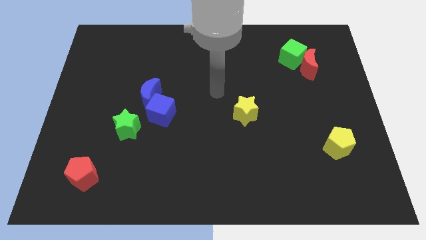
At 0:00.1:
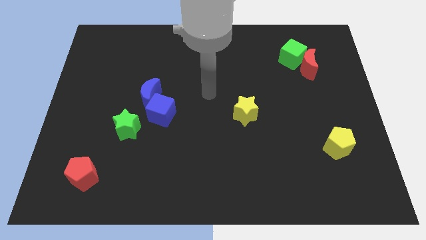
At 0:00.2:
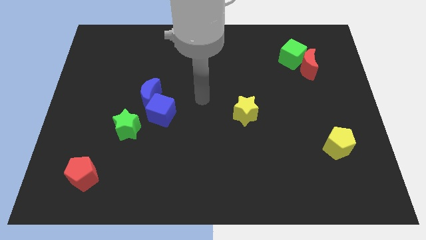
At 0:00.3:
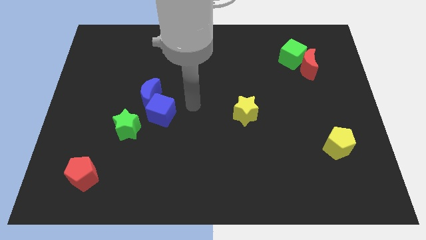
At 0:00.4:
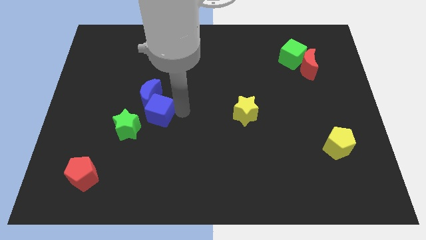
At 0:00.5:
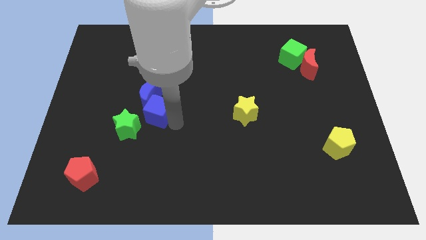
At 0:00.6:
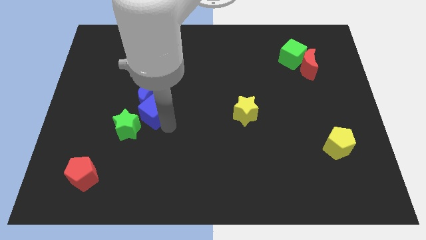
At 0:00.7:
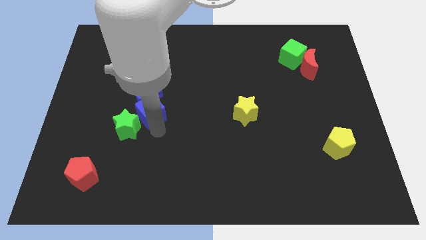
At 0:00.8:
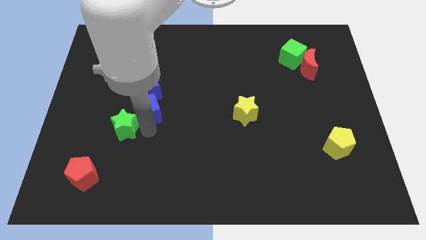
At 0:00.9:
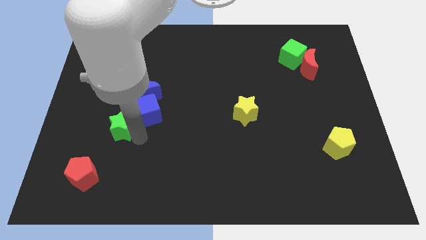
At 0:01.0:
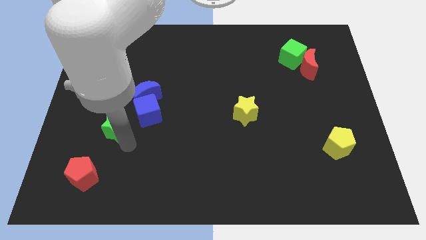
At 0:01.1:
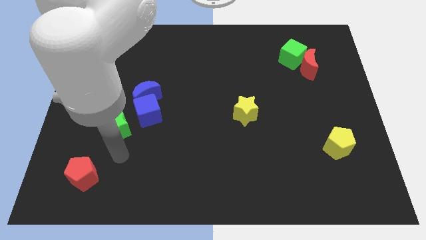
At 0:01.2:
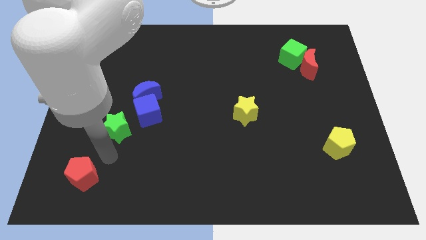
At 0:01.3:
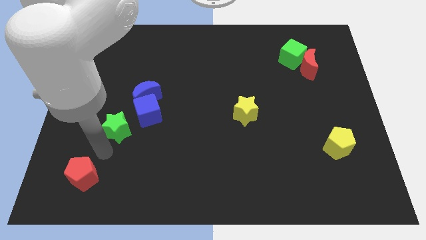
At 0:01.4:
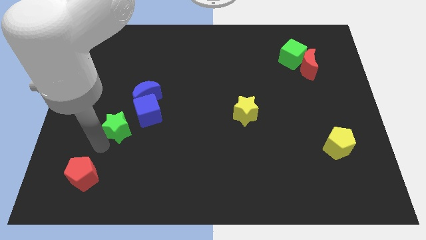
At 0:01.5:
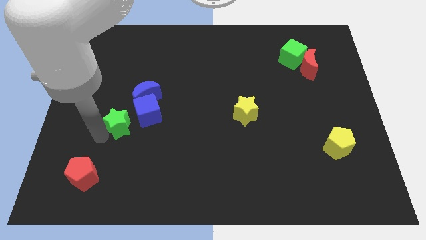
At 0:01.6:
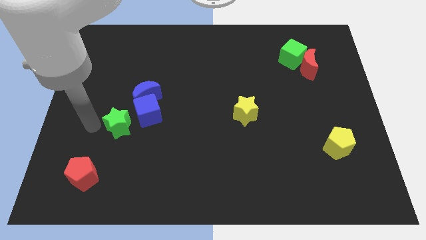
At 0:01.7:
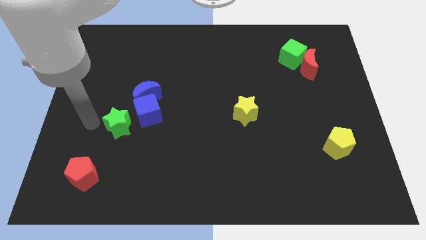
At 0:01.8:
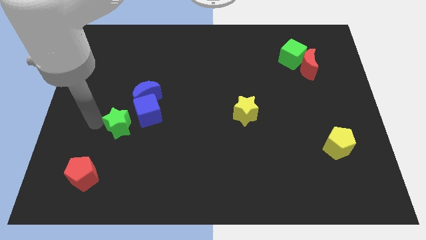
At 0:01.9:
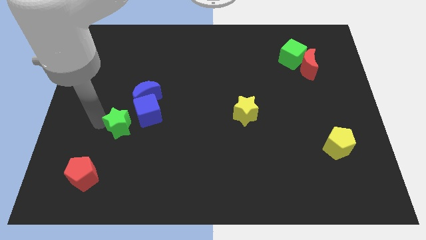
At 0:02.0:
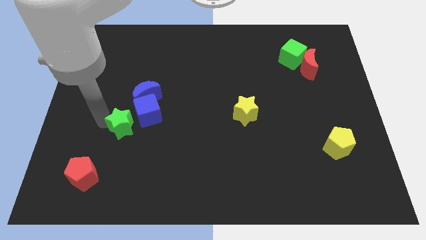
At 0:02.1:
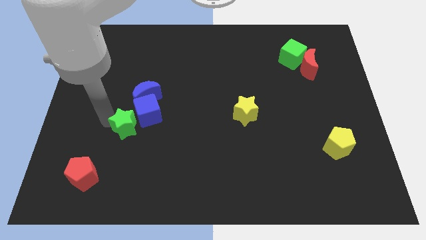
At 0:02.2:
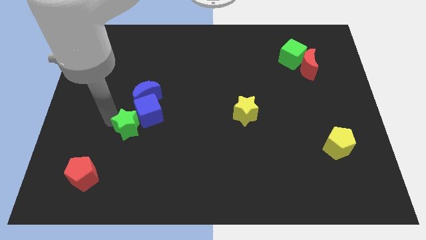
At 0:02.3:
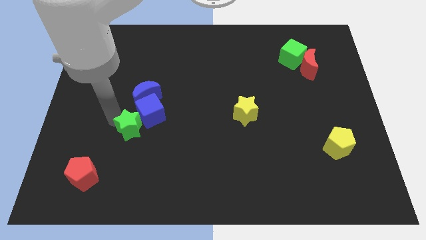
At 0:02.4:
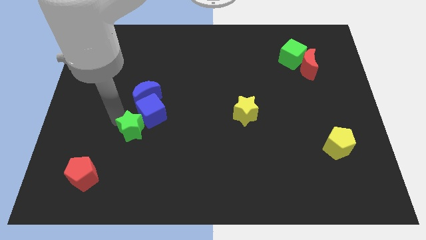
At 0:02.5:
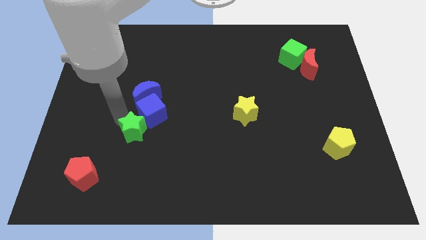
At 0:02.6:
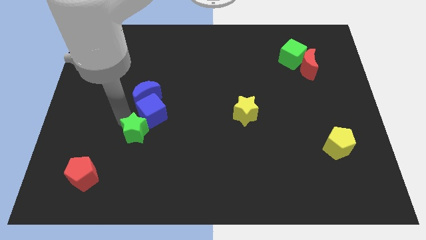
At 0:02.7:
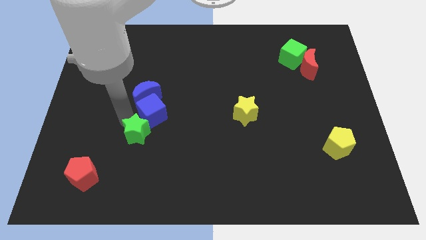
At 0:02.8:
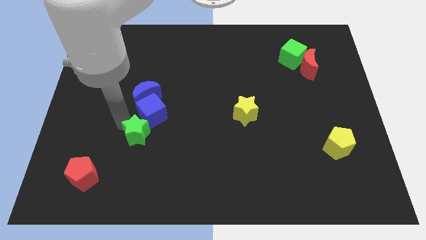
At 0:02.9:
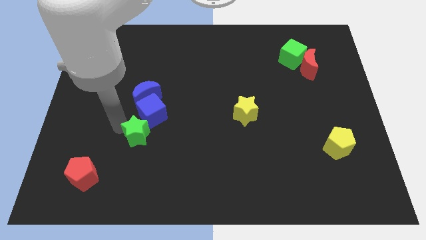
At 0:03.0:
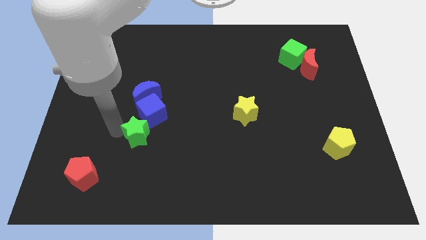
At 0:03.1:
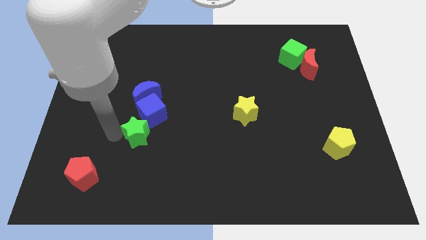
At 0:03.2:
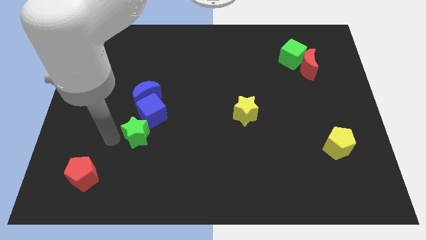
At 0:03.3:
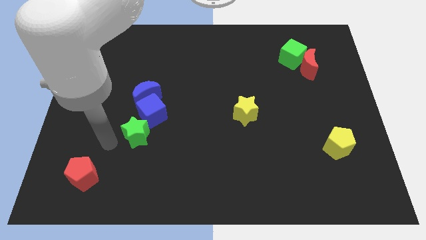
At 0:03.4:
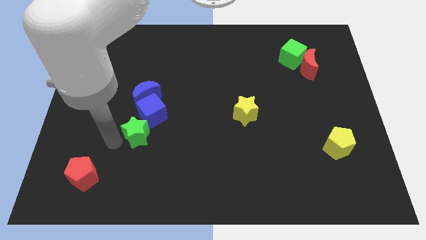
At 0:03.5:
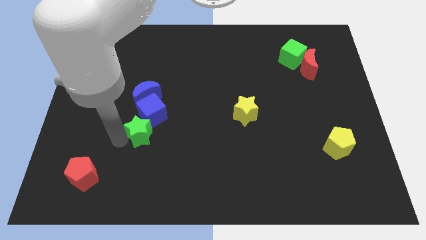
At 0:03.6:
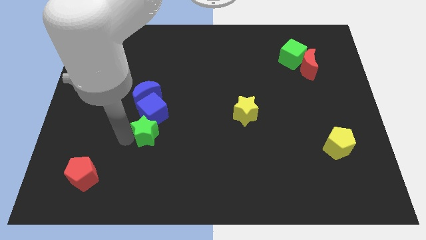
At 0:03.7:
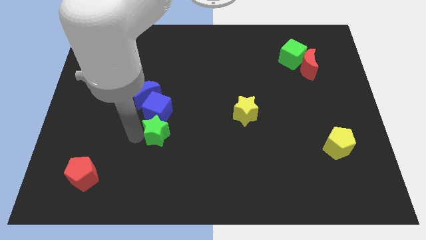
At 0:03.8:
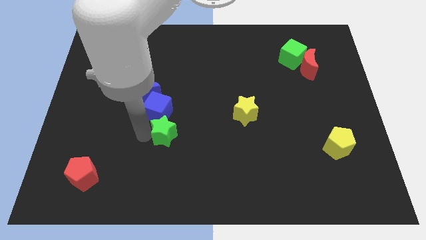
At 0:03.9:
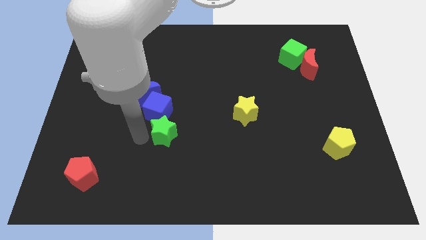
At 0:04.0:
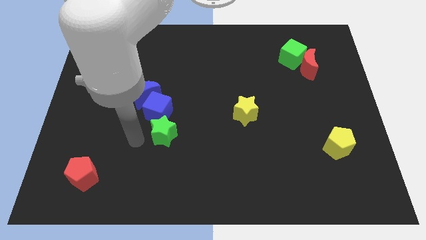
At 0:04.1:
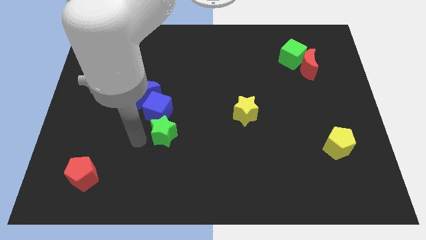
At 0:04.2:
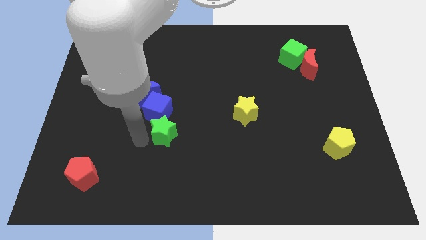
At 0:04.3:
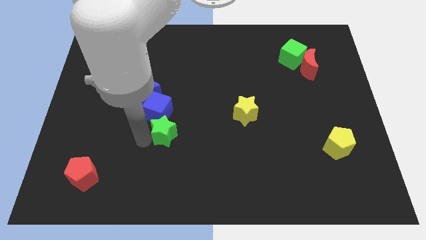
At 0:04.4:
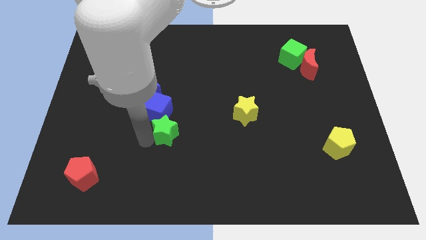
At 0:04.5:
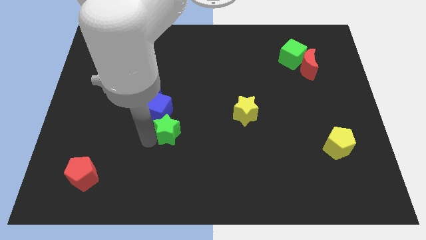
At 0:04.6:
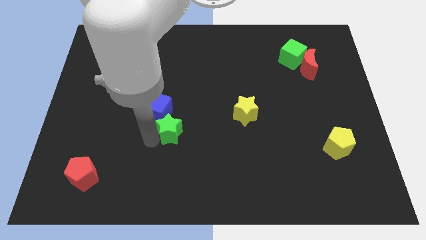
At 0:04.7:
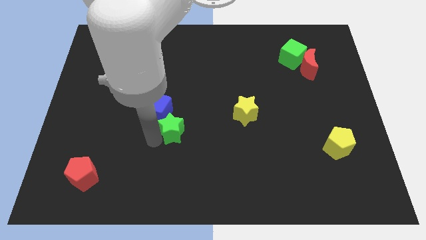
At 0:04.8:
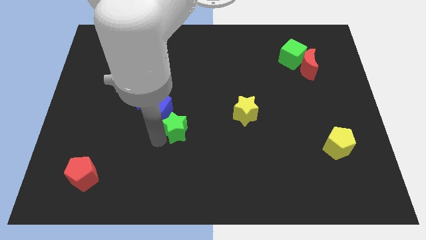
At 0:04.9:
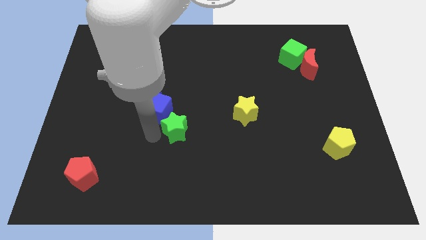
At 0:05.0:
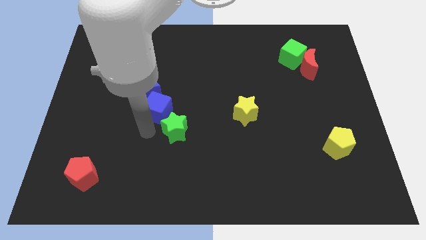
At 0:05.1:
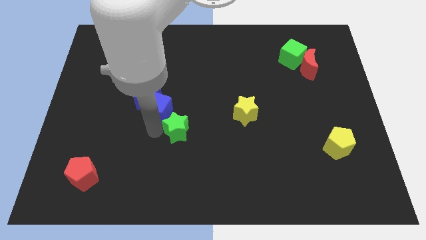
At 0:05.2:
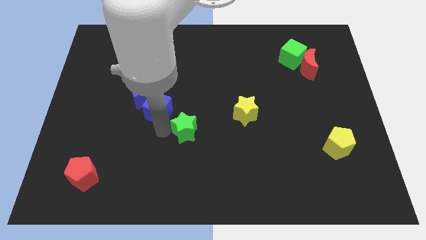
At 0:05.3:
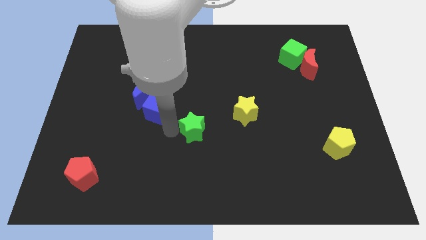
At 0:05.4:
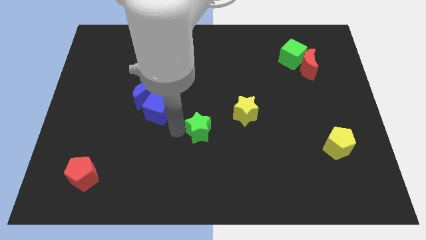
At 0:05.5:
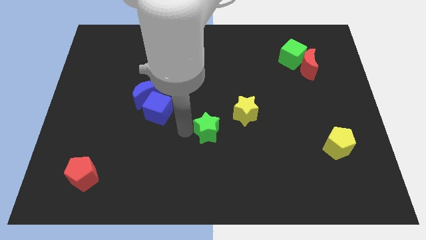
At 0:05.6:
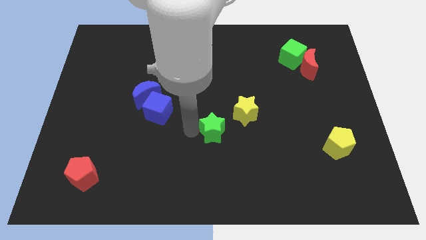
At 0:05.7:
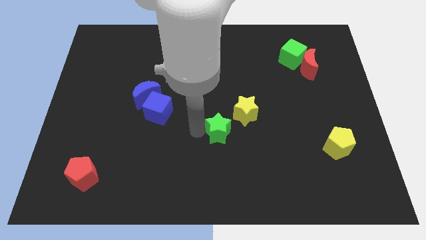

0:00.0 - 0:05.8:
move the green star right

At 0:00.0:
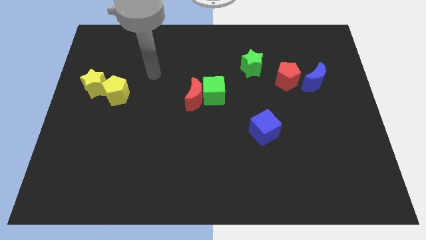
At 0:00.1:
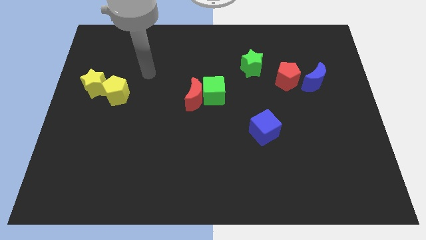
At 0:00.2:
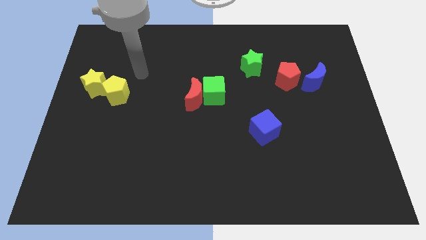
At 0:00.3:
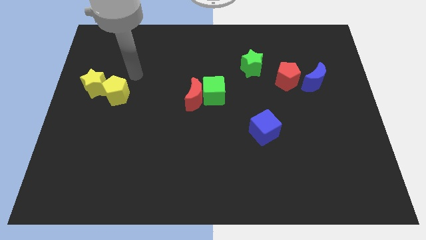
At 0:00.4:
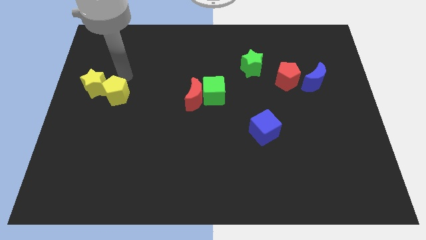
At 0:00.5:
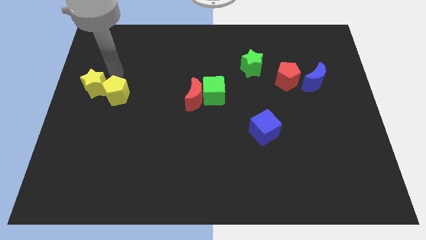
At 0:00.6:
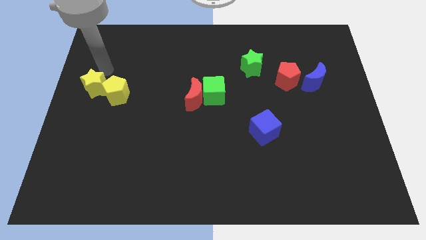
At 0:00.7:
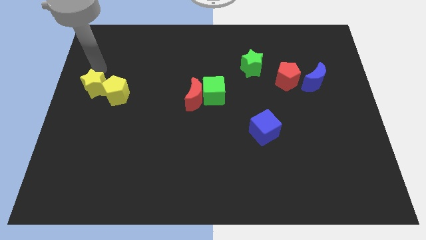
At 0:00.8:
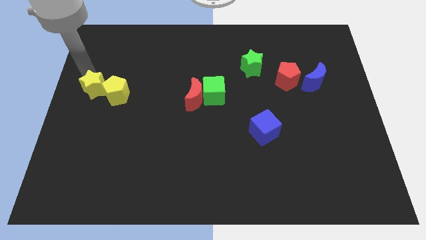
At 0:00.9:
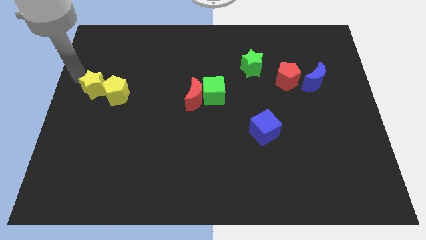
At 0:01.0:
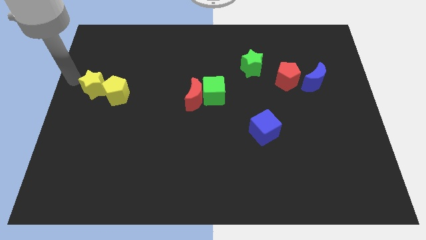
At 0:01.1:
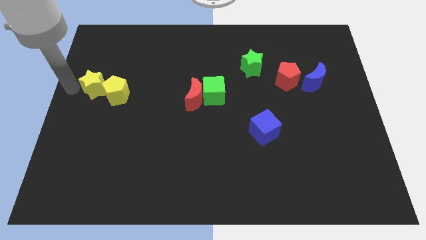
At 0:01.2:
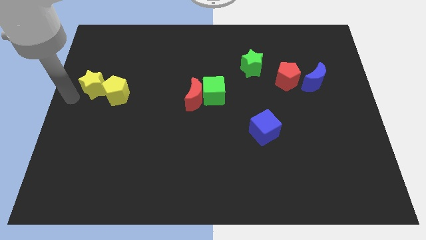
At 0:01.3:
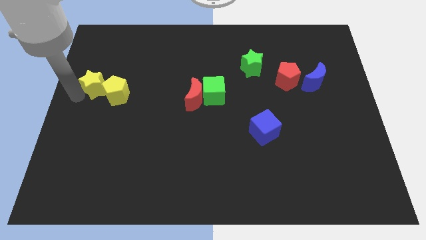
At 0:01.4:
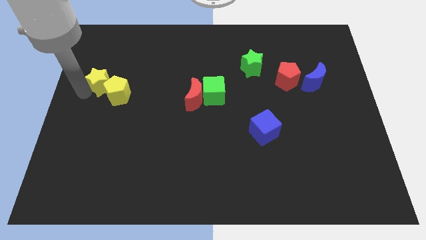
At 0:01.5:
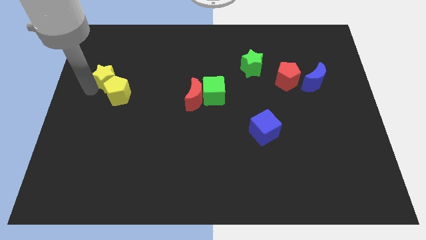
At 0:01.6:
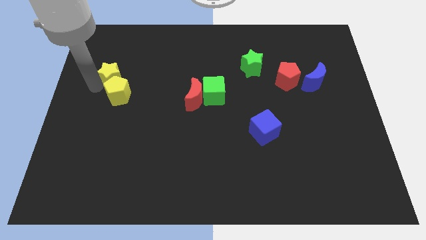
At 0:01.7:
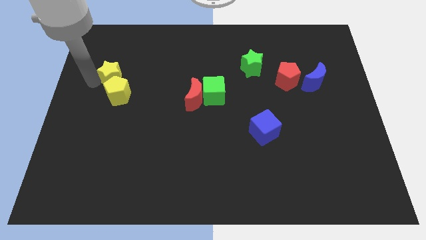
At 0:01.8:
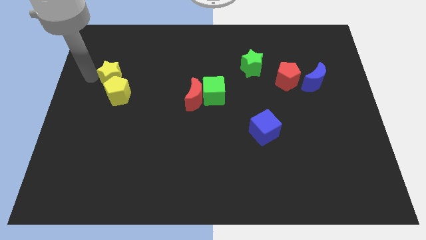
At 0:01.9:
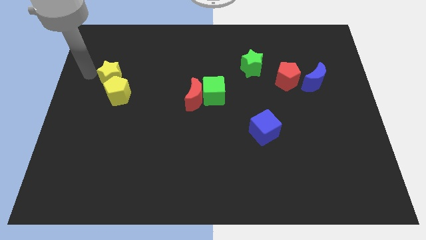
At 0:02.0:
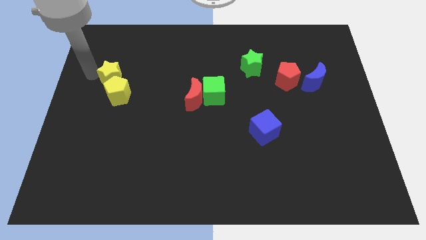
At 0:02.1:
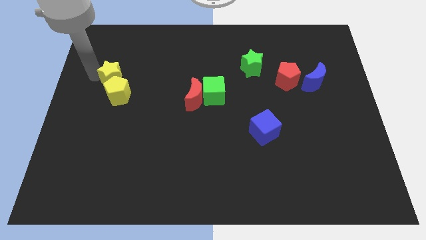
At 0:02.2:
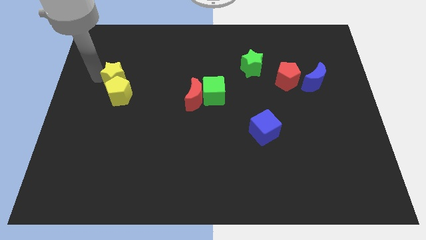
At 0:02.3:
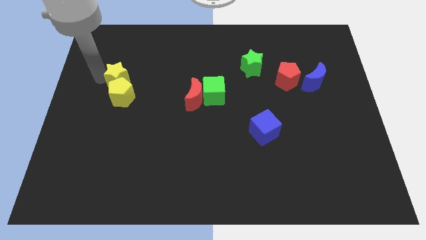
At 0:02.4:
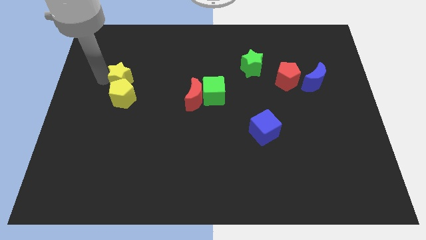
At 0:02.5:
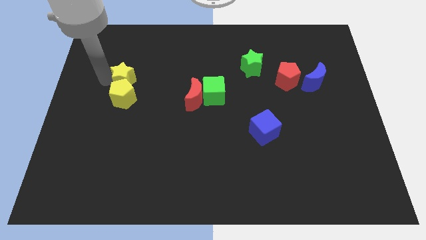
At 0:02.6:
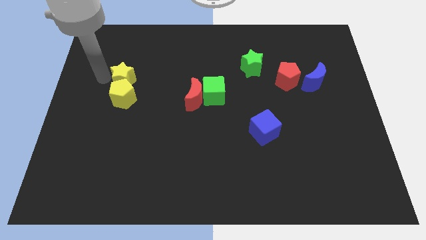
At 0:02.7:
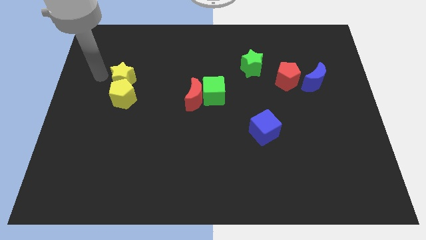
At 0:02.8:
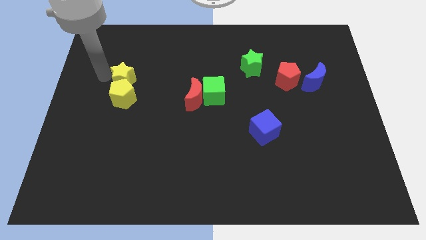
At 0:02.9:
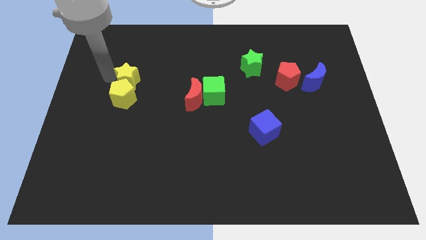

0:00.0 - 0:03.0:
move the yellow star slightly right

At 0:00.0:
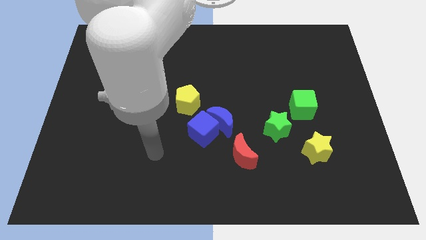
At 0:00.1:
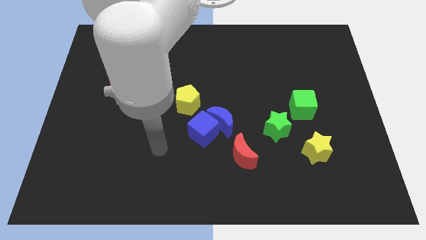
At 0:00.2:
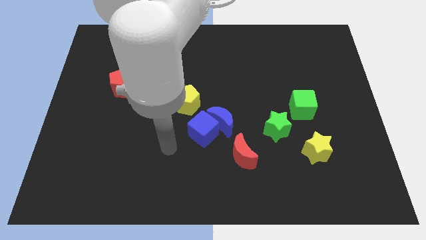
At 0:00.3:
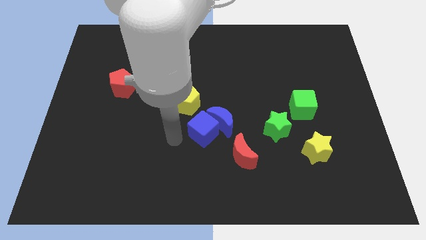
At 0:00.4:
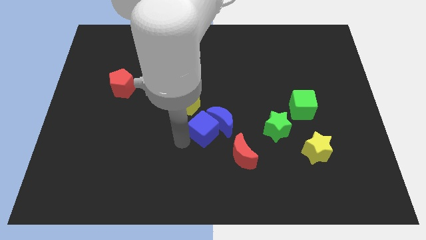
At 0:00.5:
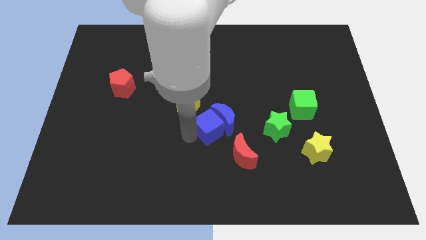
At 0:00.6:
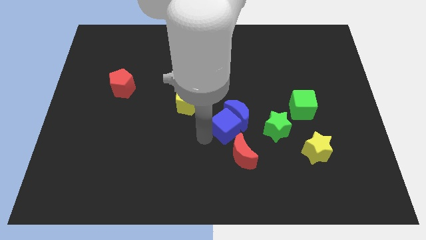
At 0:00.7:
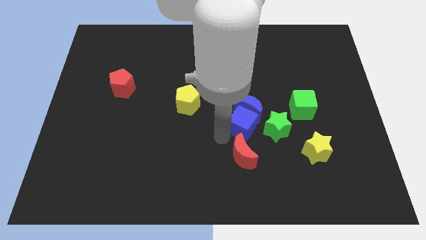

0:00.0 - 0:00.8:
slide the blue moon somewhat diagonally up and right
